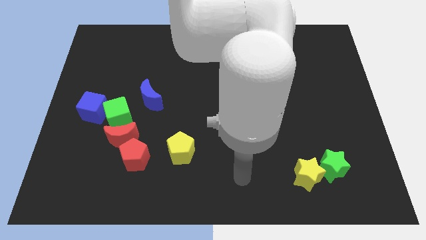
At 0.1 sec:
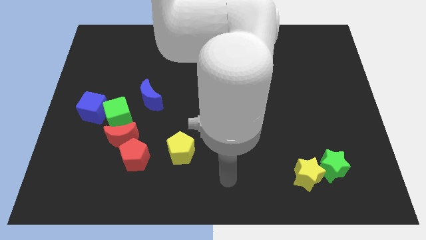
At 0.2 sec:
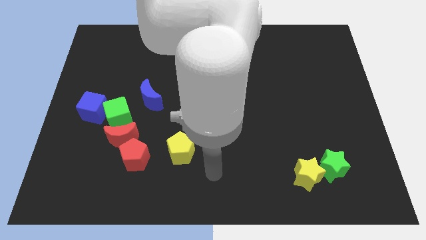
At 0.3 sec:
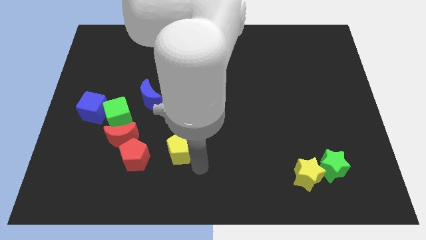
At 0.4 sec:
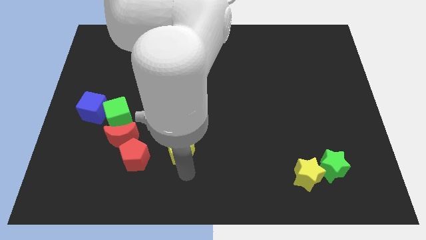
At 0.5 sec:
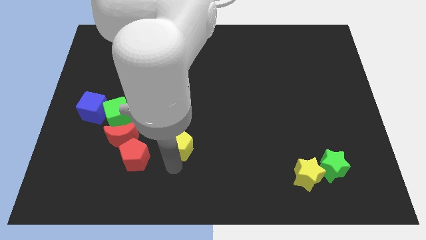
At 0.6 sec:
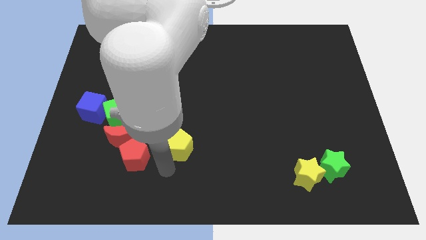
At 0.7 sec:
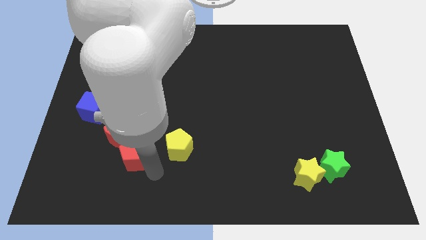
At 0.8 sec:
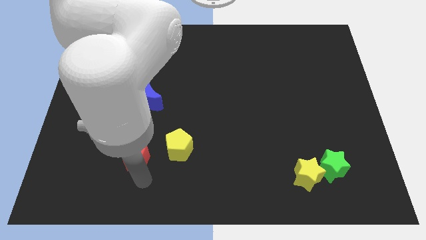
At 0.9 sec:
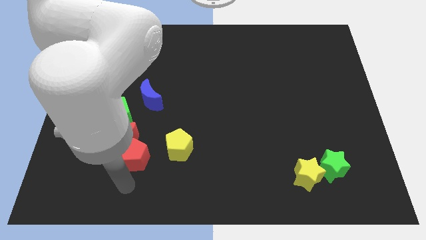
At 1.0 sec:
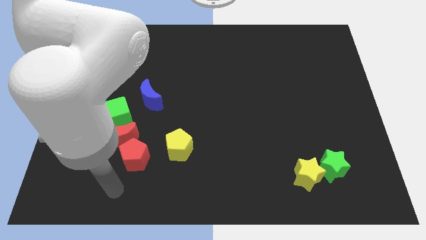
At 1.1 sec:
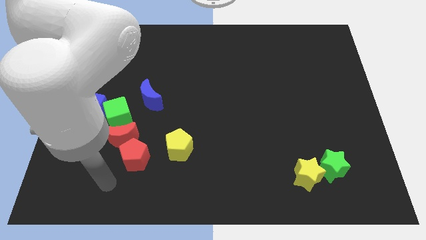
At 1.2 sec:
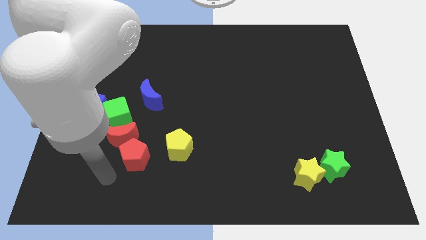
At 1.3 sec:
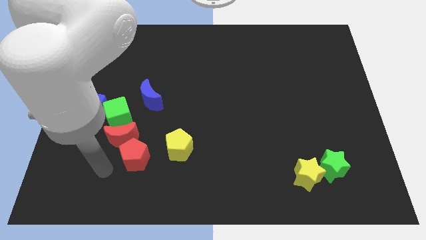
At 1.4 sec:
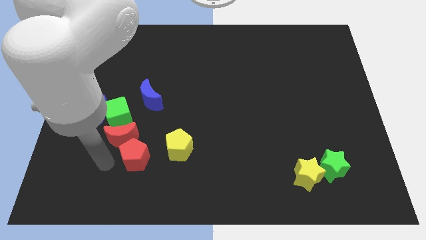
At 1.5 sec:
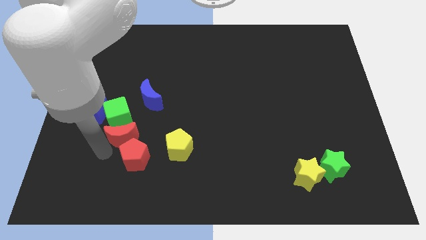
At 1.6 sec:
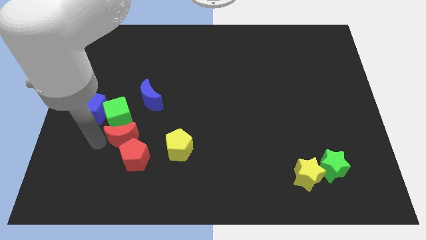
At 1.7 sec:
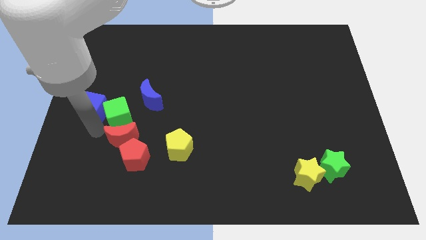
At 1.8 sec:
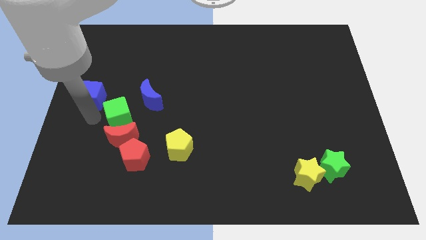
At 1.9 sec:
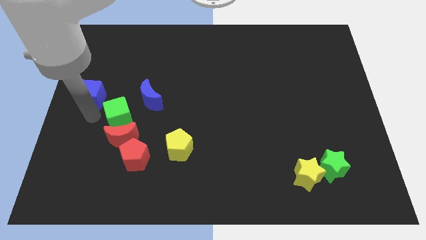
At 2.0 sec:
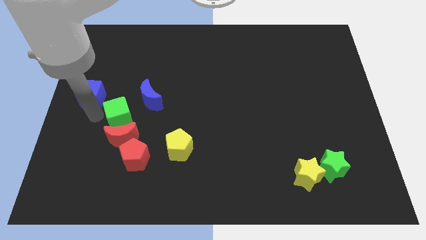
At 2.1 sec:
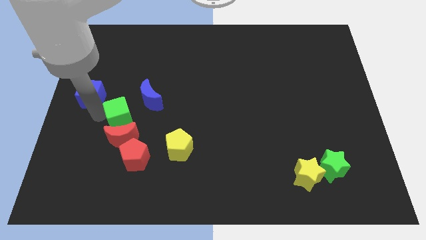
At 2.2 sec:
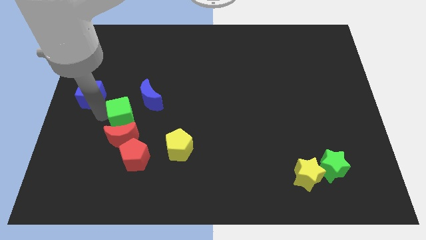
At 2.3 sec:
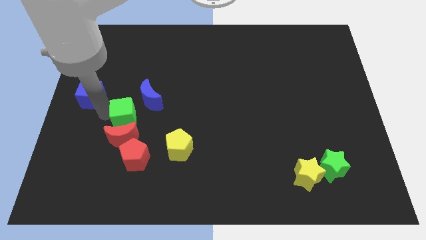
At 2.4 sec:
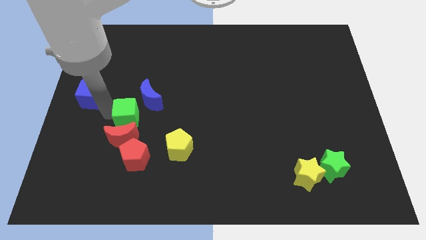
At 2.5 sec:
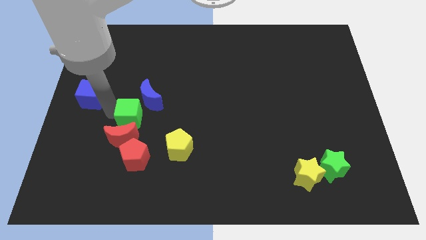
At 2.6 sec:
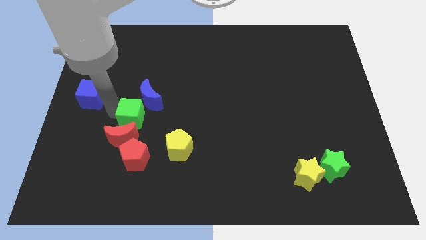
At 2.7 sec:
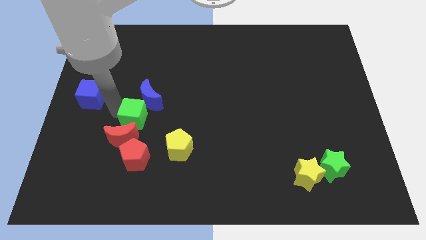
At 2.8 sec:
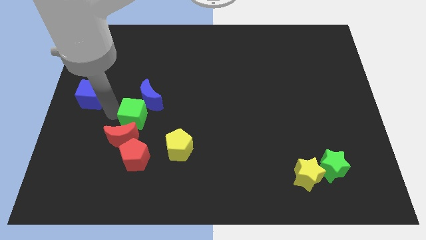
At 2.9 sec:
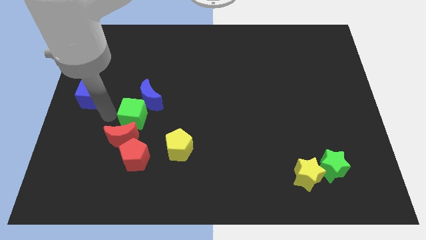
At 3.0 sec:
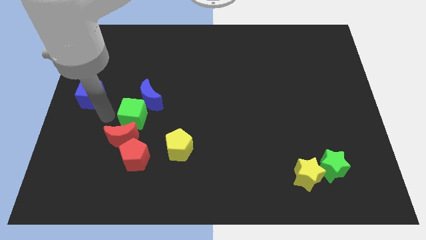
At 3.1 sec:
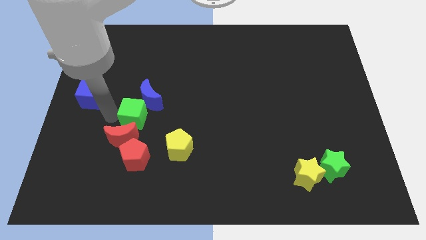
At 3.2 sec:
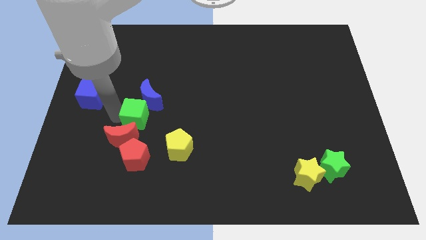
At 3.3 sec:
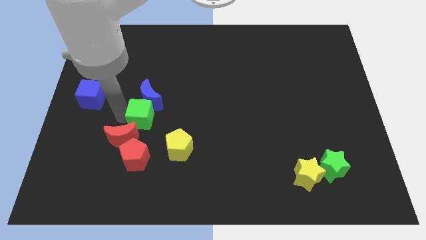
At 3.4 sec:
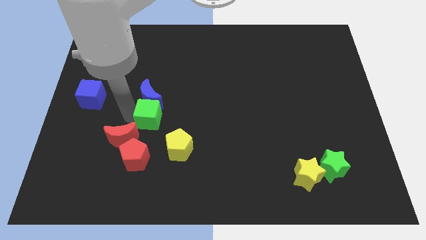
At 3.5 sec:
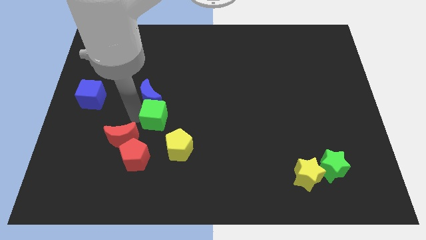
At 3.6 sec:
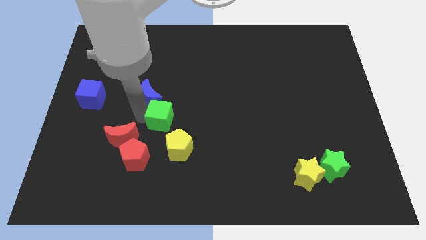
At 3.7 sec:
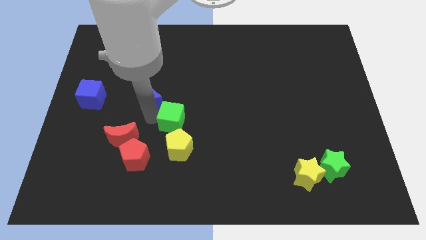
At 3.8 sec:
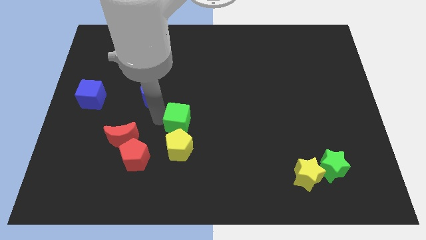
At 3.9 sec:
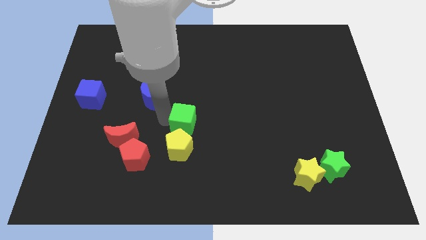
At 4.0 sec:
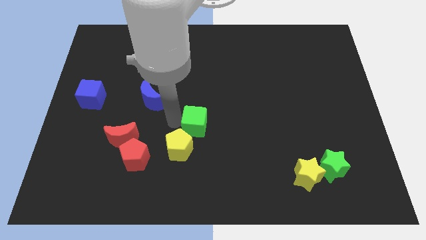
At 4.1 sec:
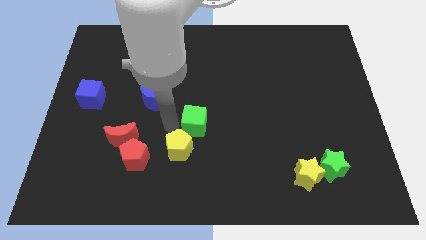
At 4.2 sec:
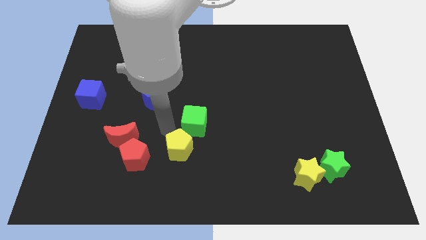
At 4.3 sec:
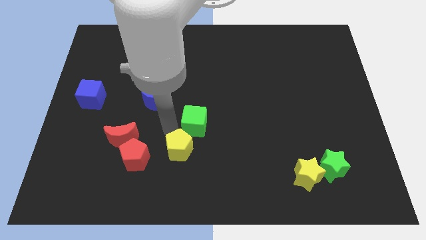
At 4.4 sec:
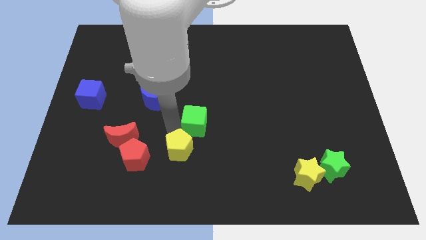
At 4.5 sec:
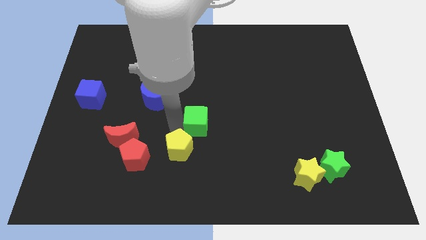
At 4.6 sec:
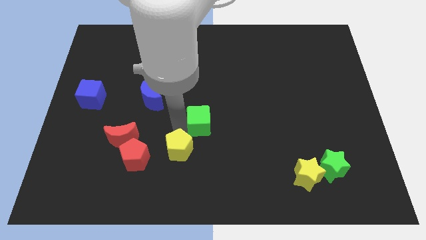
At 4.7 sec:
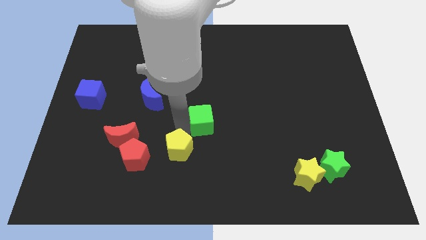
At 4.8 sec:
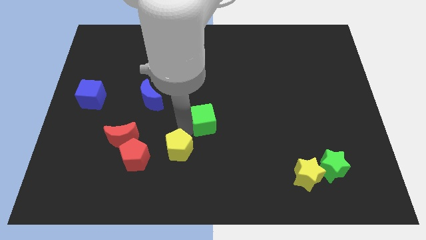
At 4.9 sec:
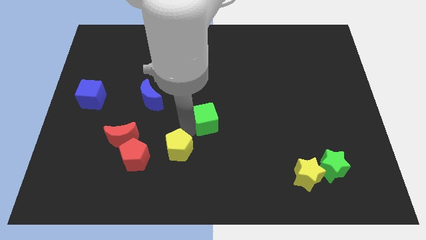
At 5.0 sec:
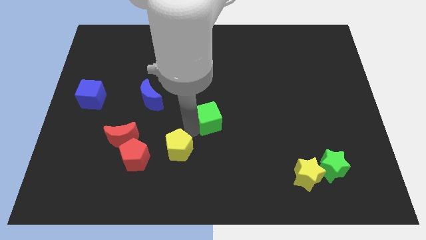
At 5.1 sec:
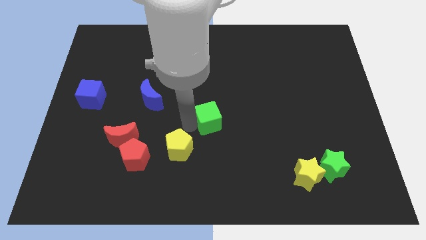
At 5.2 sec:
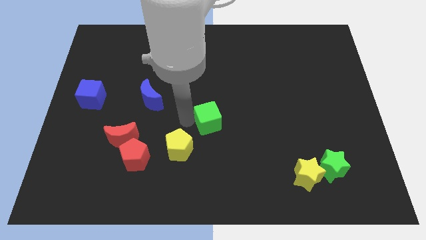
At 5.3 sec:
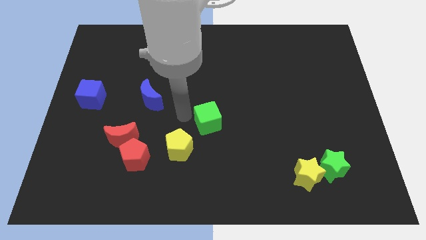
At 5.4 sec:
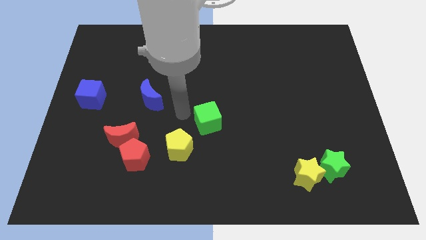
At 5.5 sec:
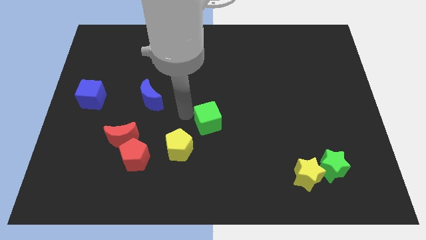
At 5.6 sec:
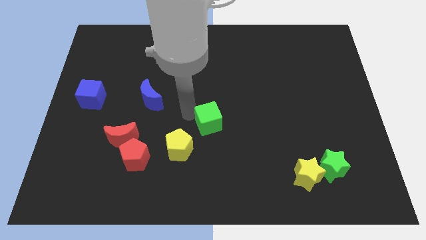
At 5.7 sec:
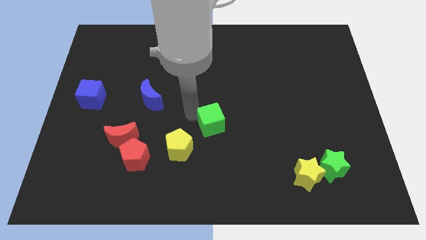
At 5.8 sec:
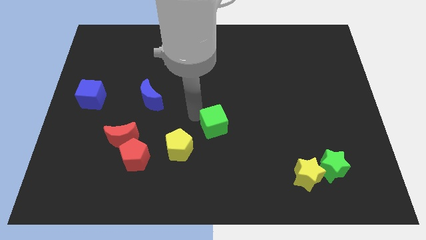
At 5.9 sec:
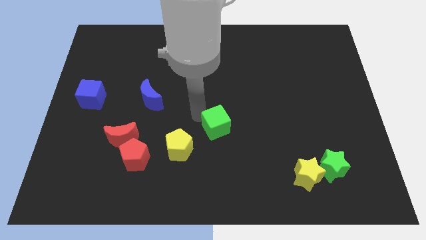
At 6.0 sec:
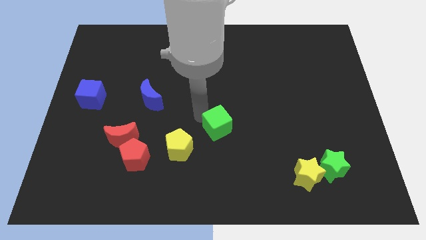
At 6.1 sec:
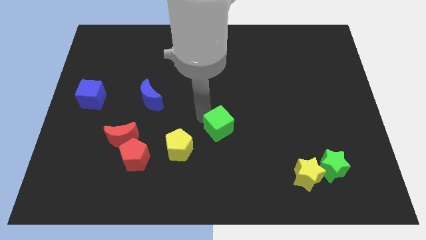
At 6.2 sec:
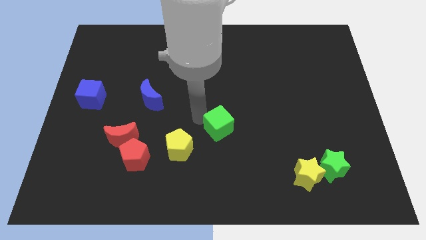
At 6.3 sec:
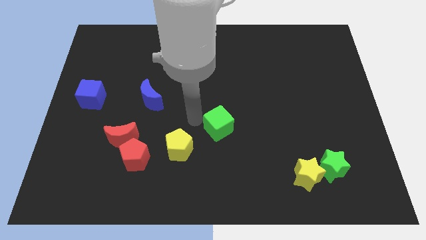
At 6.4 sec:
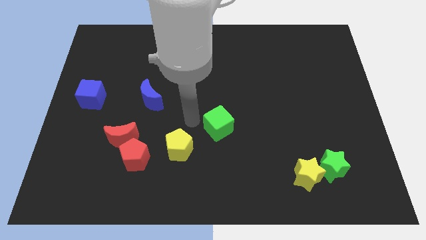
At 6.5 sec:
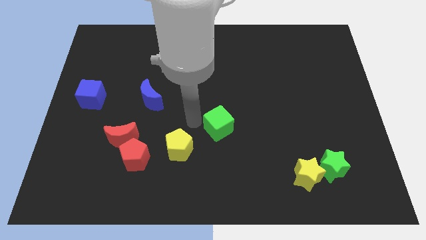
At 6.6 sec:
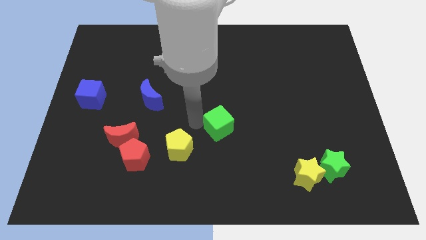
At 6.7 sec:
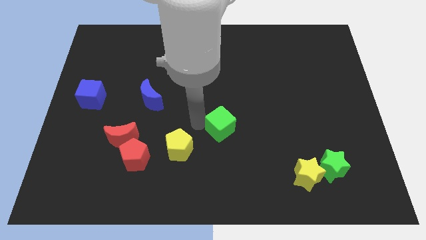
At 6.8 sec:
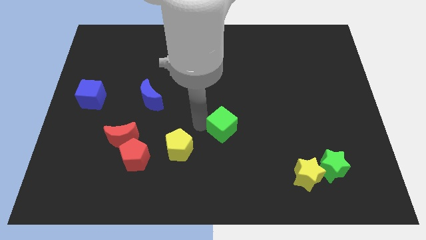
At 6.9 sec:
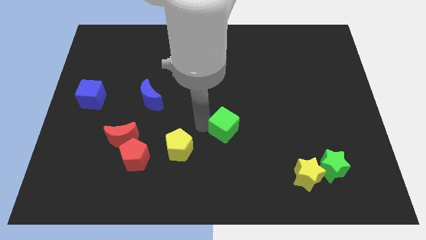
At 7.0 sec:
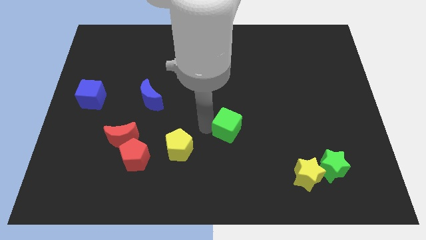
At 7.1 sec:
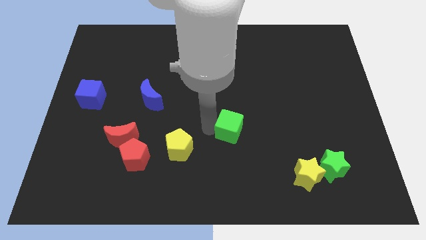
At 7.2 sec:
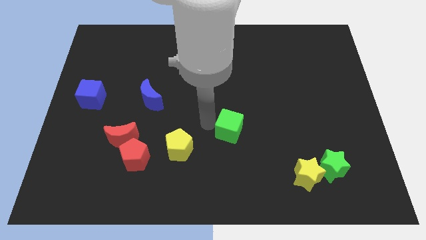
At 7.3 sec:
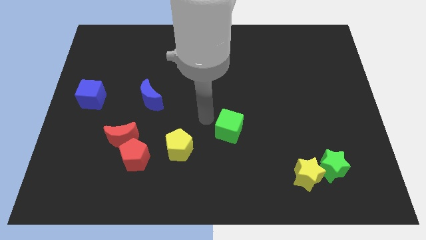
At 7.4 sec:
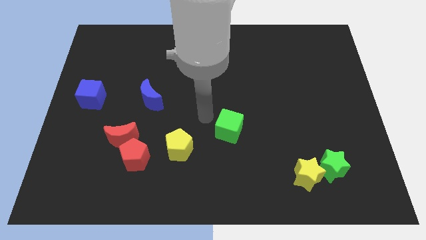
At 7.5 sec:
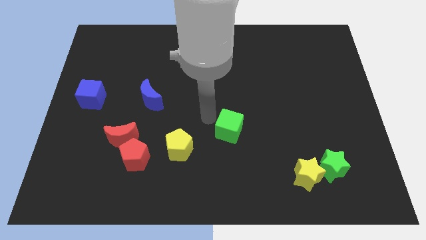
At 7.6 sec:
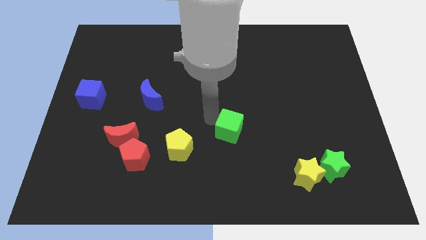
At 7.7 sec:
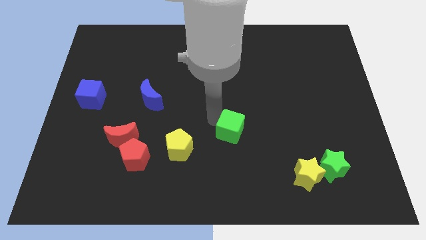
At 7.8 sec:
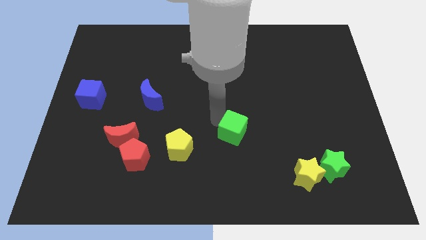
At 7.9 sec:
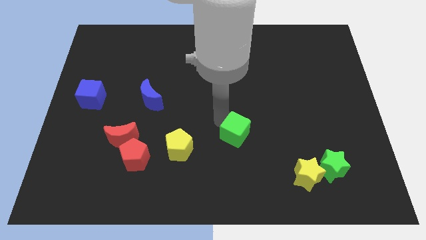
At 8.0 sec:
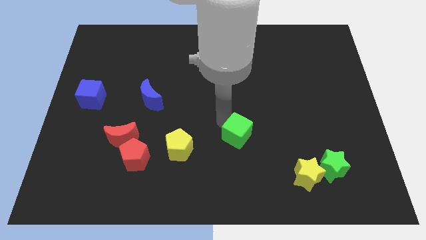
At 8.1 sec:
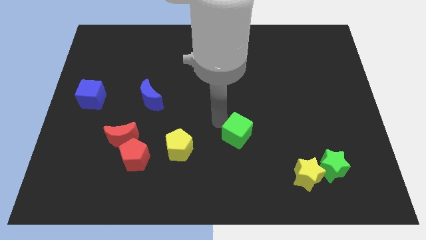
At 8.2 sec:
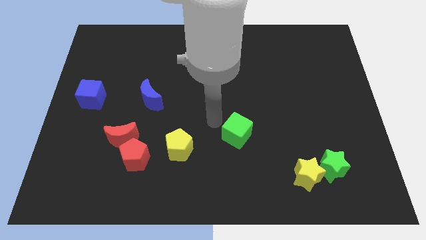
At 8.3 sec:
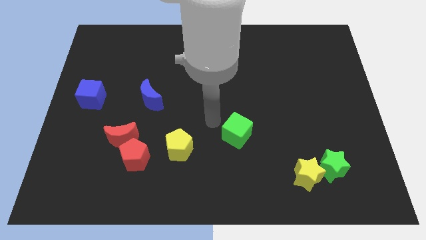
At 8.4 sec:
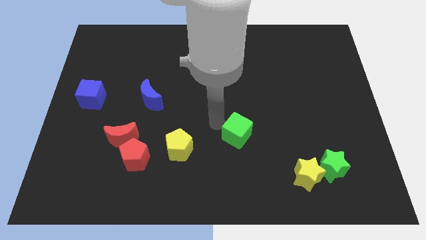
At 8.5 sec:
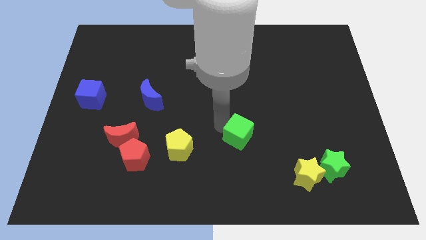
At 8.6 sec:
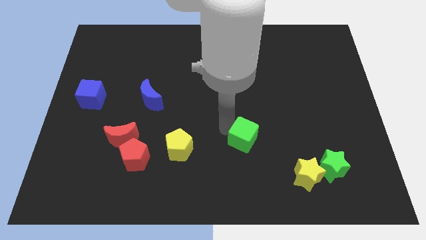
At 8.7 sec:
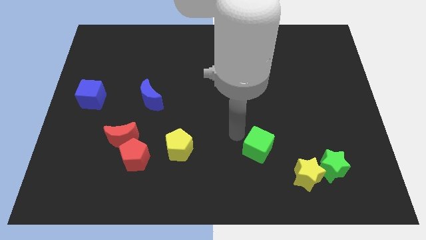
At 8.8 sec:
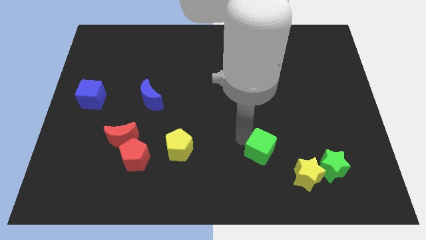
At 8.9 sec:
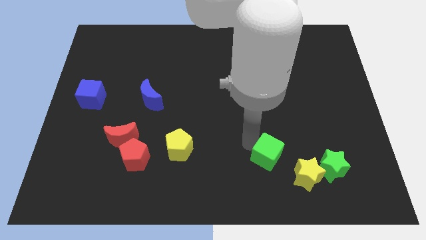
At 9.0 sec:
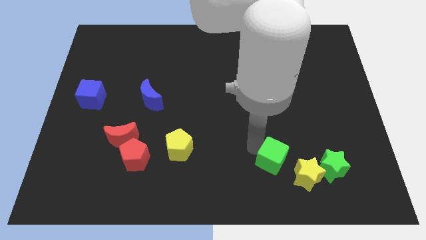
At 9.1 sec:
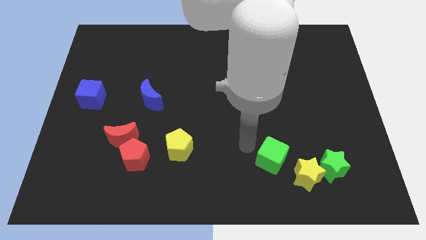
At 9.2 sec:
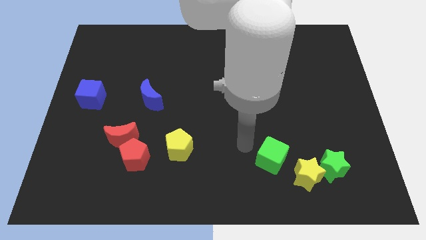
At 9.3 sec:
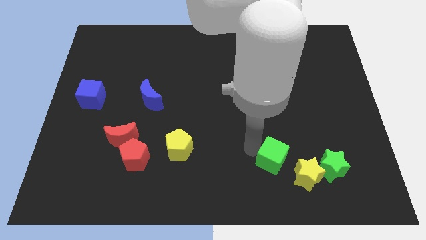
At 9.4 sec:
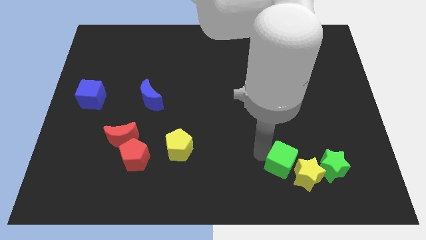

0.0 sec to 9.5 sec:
move the green cube close to the yellow star
